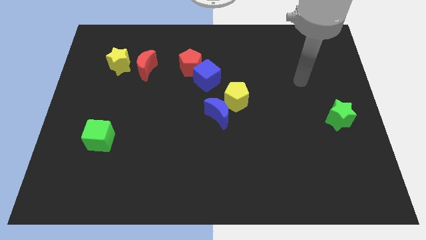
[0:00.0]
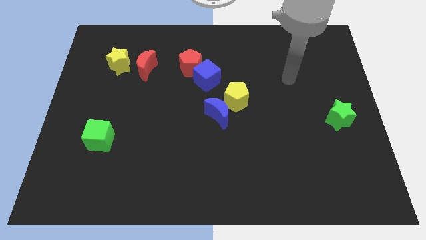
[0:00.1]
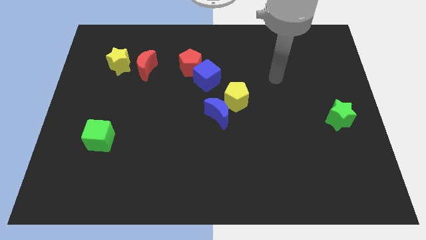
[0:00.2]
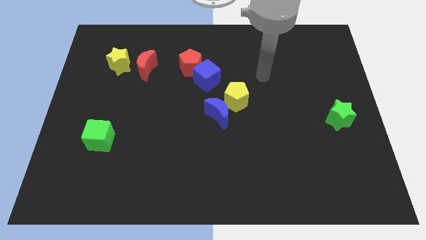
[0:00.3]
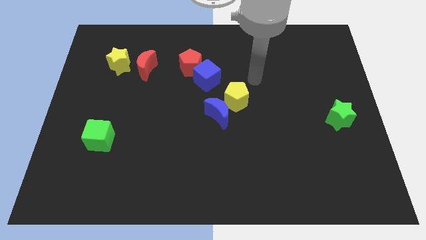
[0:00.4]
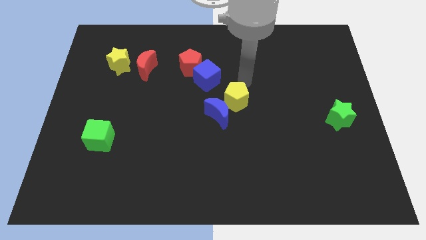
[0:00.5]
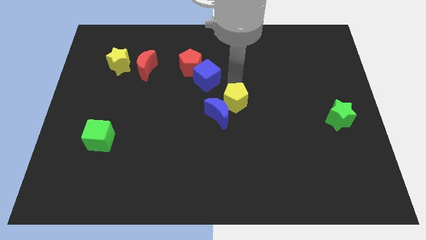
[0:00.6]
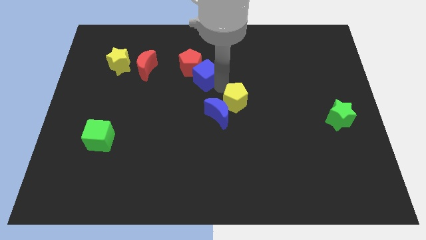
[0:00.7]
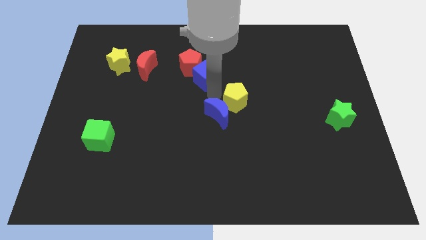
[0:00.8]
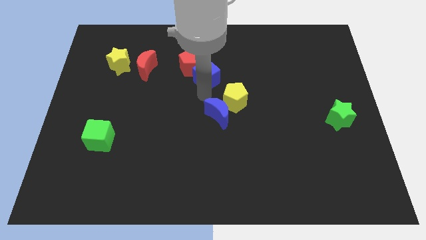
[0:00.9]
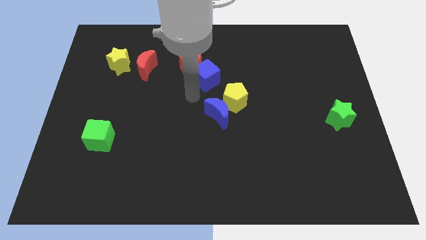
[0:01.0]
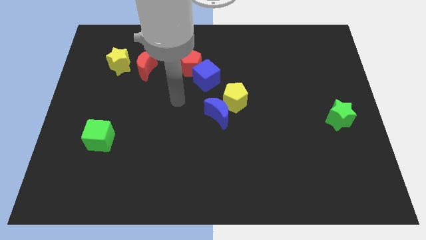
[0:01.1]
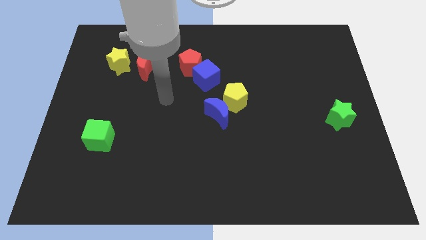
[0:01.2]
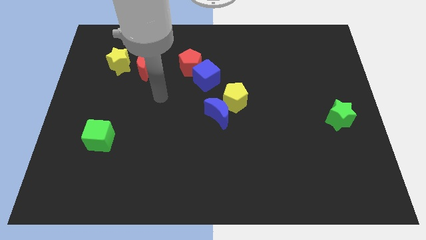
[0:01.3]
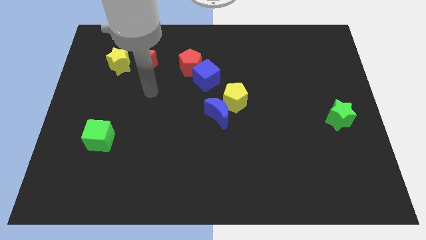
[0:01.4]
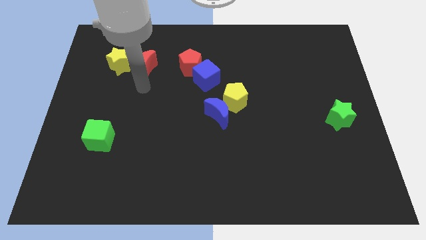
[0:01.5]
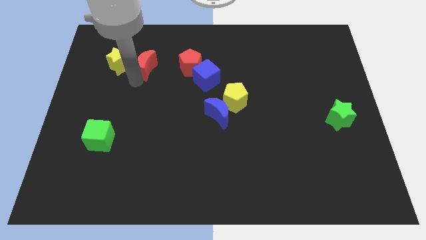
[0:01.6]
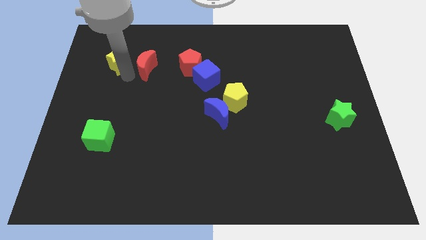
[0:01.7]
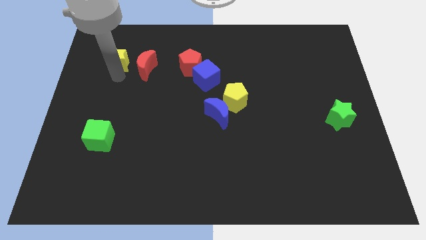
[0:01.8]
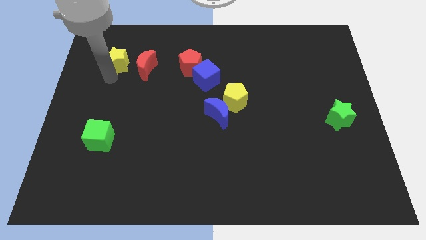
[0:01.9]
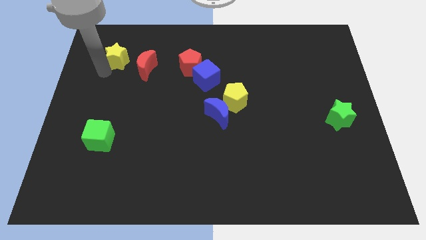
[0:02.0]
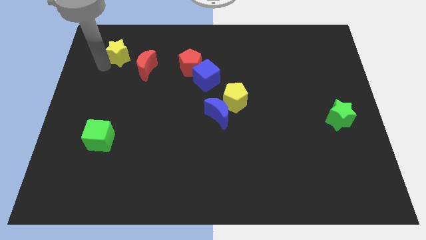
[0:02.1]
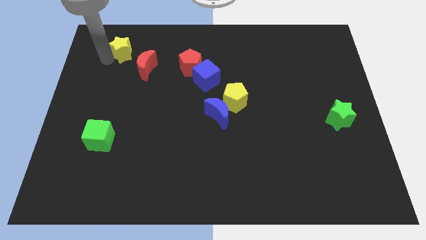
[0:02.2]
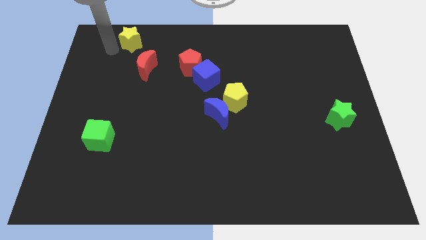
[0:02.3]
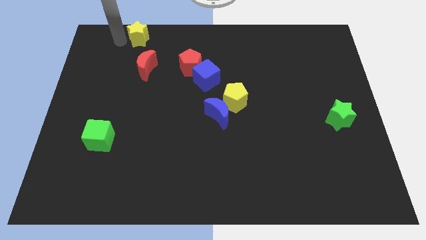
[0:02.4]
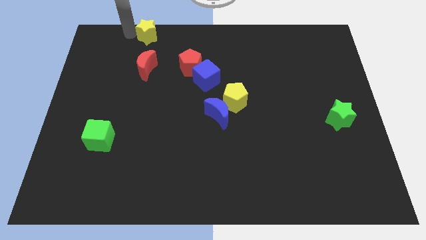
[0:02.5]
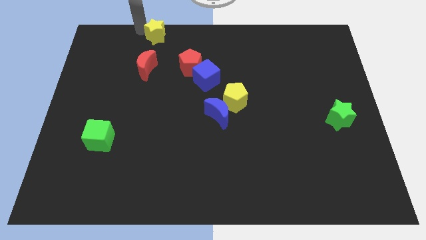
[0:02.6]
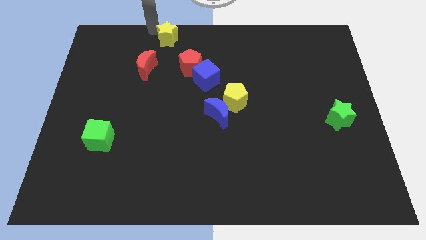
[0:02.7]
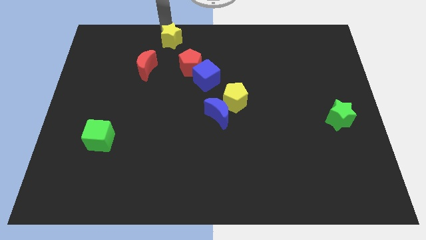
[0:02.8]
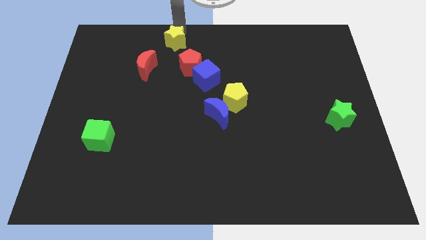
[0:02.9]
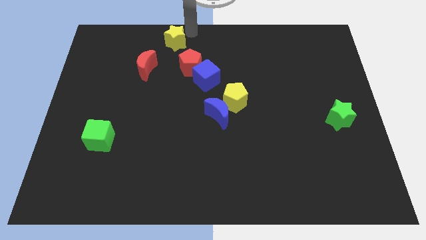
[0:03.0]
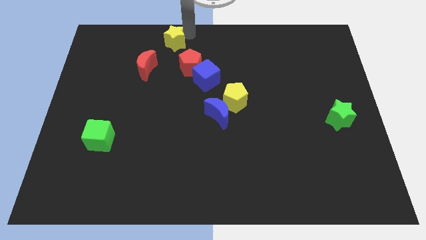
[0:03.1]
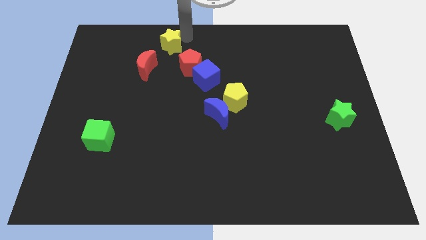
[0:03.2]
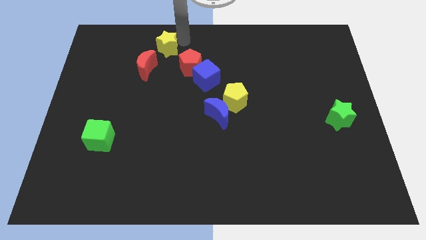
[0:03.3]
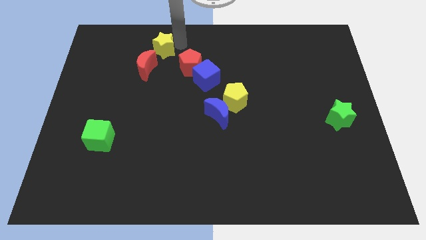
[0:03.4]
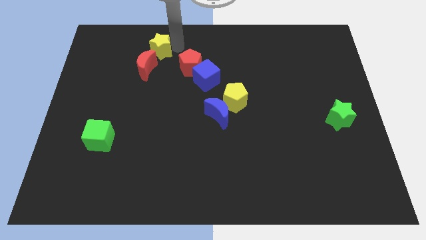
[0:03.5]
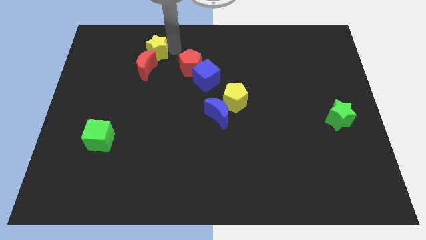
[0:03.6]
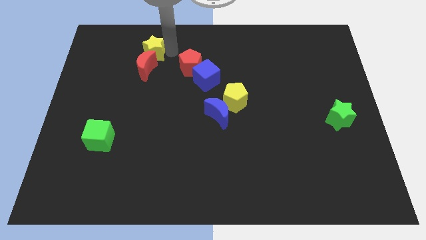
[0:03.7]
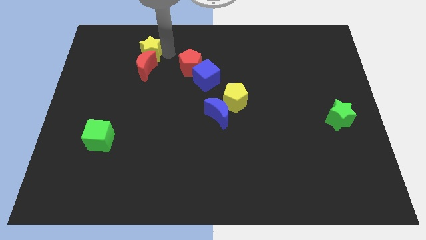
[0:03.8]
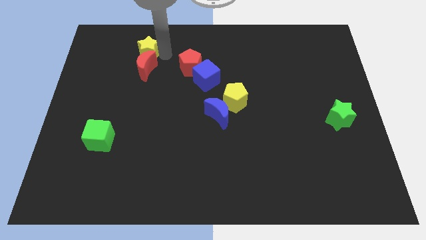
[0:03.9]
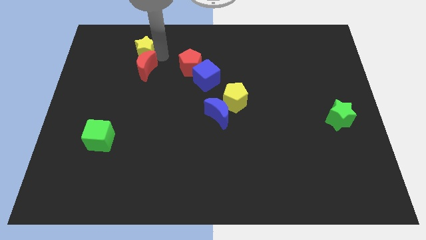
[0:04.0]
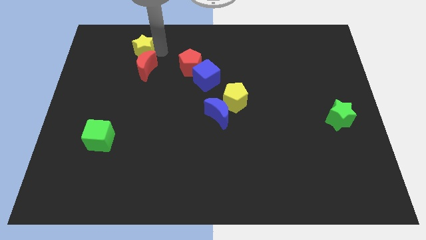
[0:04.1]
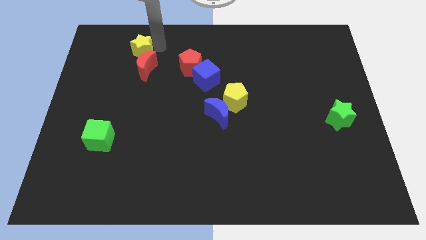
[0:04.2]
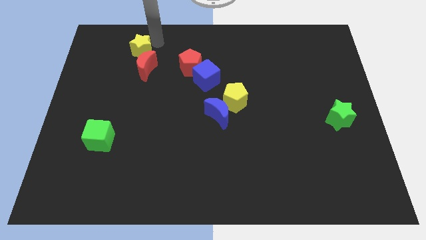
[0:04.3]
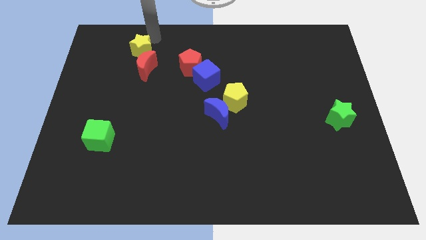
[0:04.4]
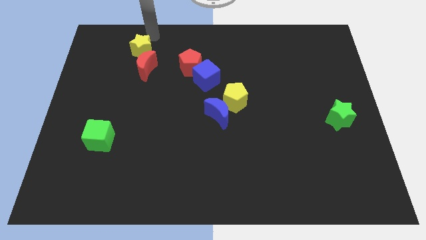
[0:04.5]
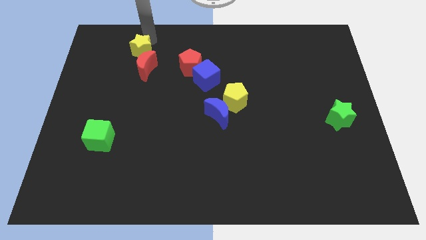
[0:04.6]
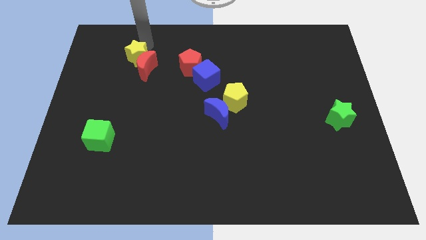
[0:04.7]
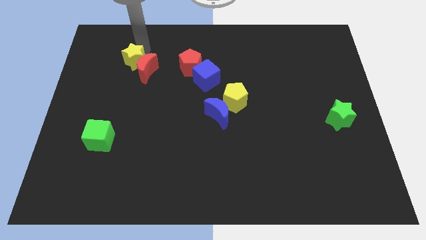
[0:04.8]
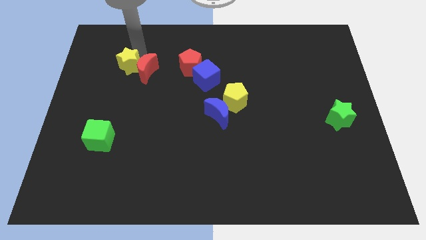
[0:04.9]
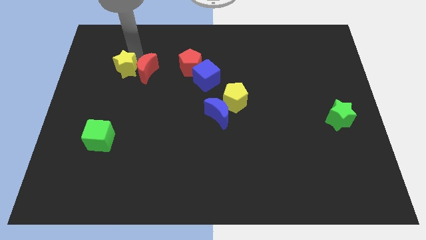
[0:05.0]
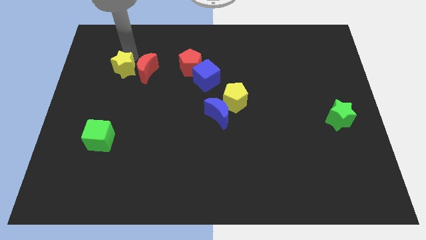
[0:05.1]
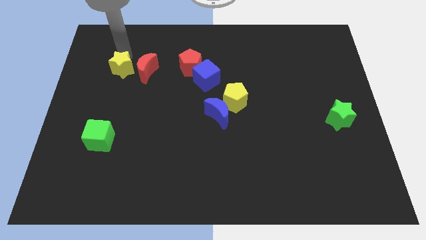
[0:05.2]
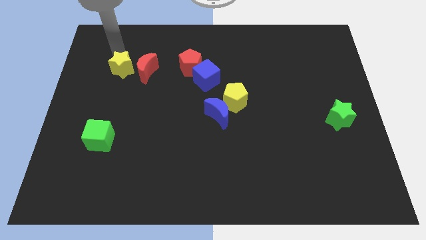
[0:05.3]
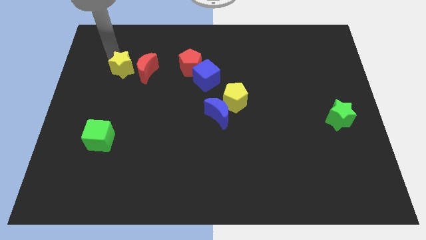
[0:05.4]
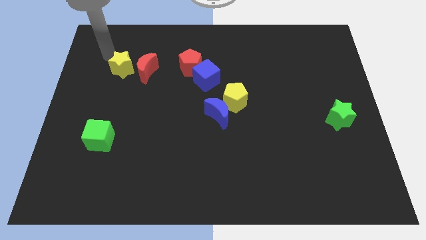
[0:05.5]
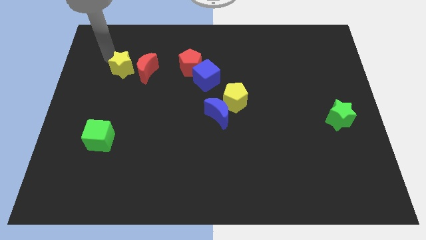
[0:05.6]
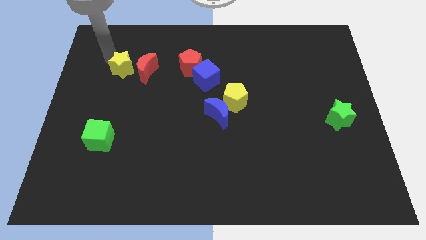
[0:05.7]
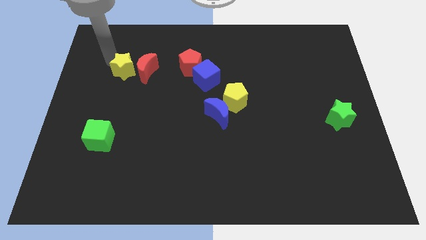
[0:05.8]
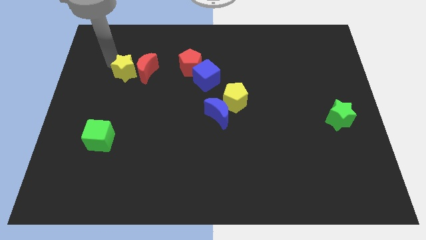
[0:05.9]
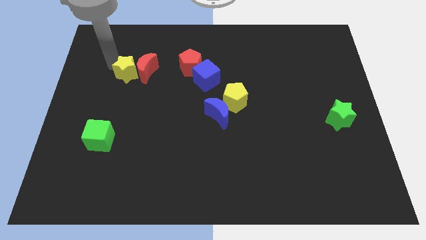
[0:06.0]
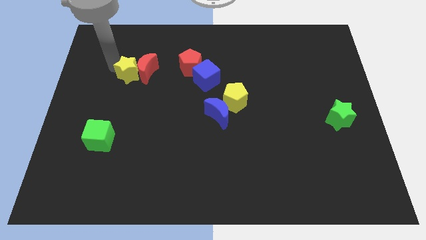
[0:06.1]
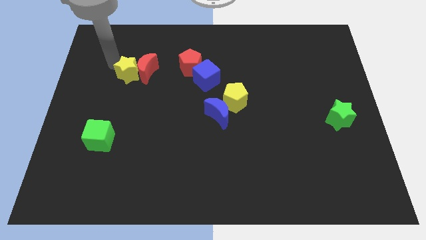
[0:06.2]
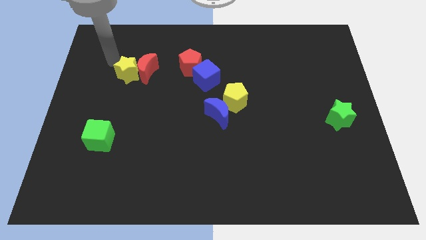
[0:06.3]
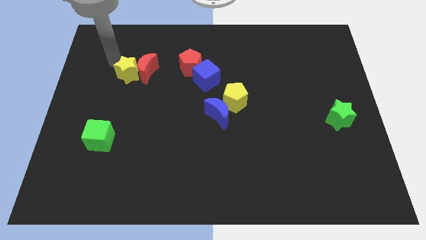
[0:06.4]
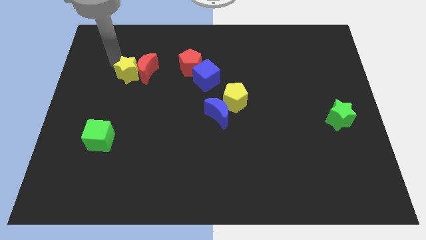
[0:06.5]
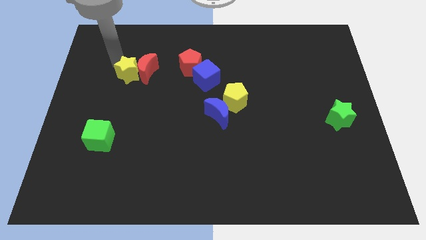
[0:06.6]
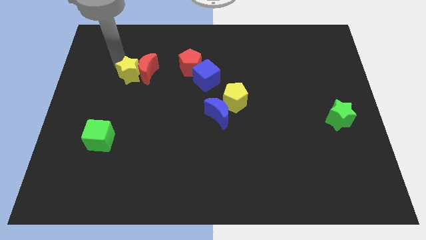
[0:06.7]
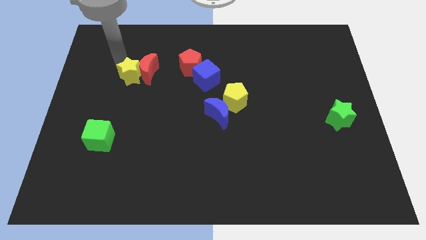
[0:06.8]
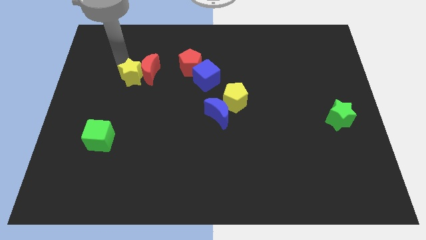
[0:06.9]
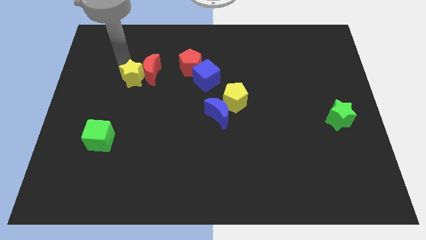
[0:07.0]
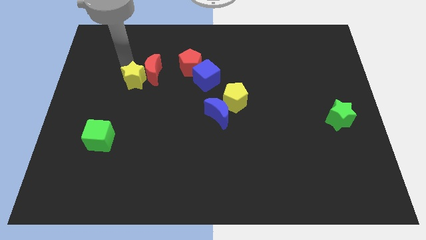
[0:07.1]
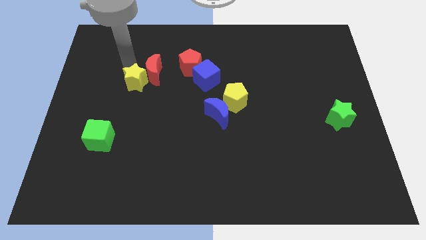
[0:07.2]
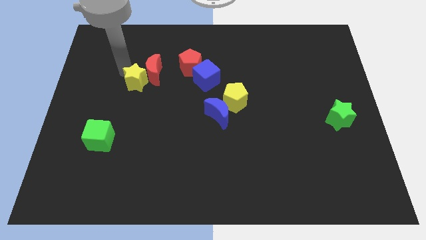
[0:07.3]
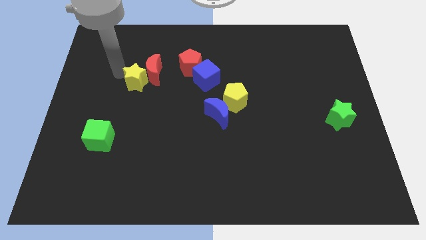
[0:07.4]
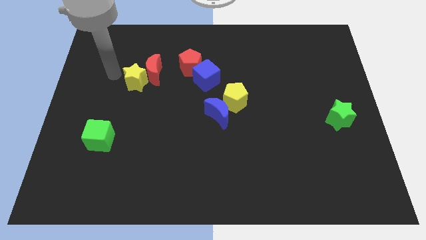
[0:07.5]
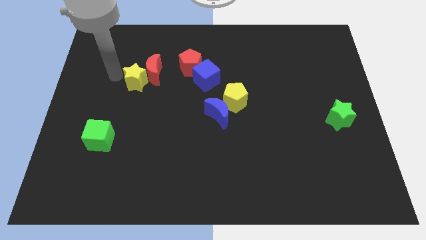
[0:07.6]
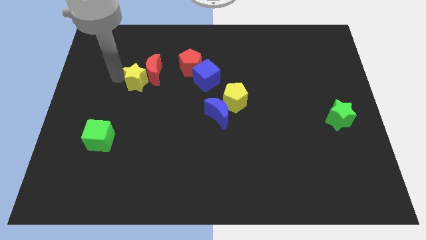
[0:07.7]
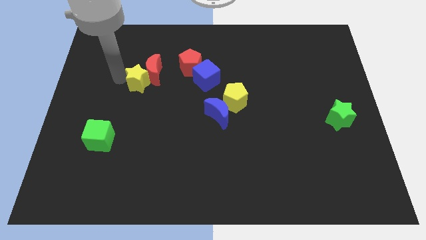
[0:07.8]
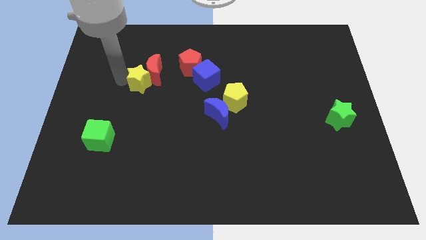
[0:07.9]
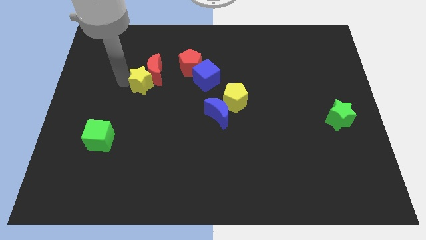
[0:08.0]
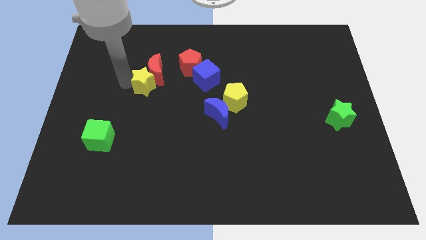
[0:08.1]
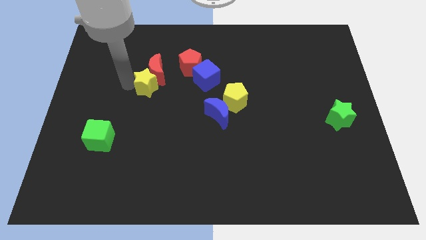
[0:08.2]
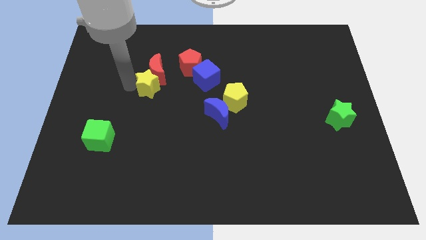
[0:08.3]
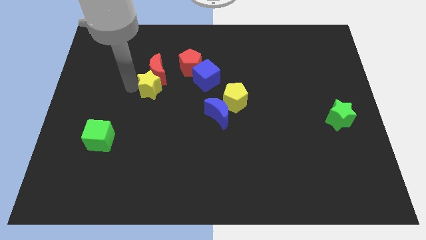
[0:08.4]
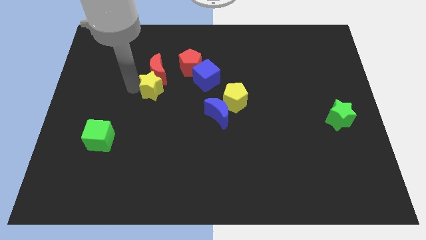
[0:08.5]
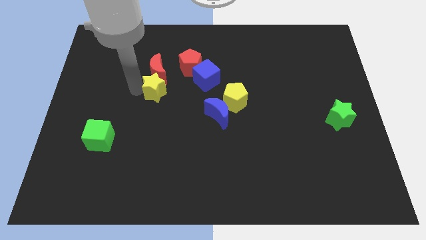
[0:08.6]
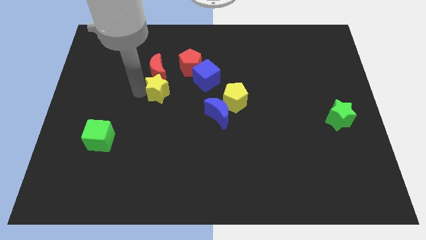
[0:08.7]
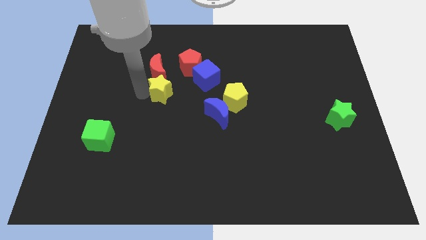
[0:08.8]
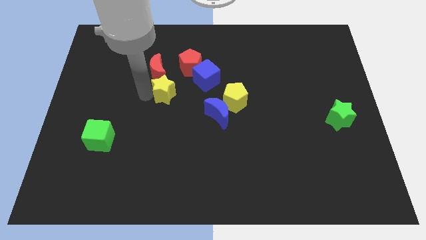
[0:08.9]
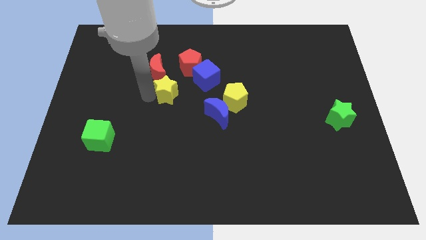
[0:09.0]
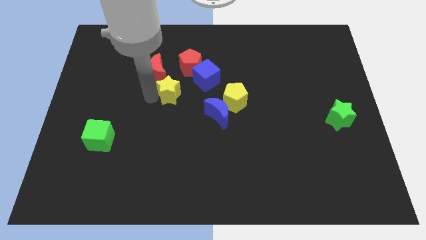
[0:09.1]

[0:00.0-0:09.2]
move the yellow star left of the yellow pentagon
